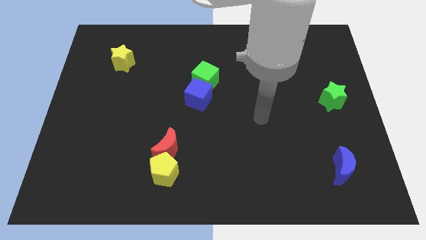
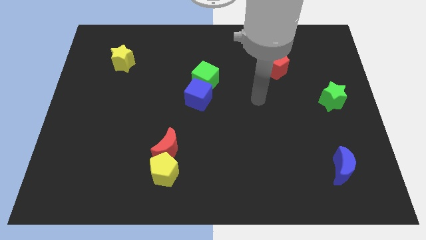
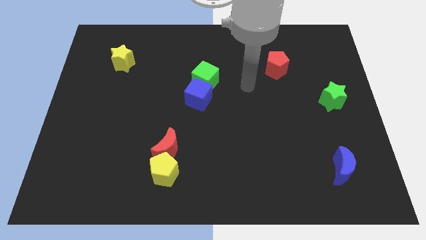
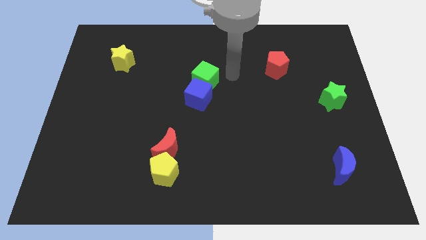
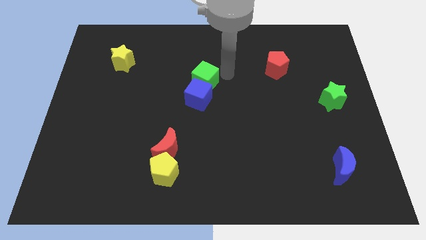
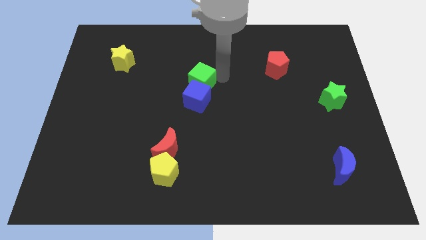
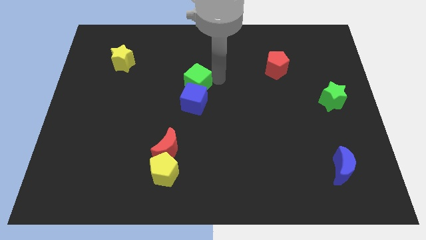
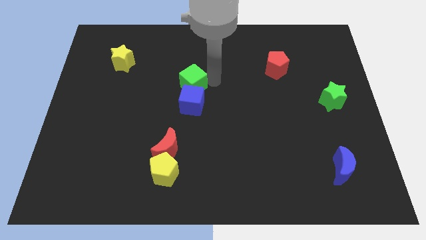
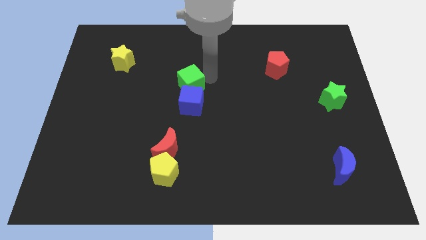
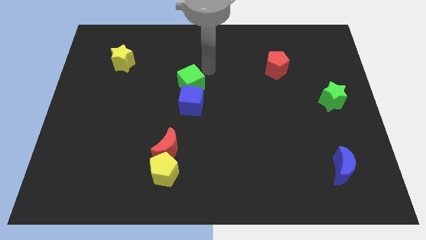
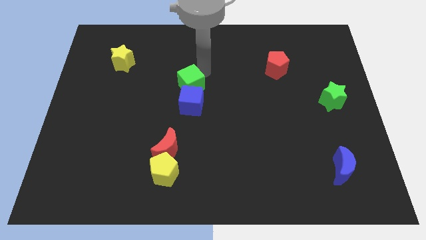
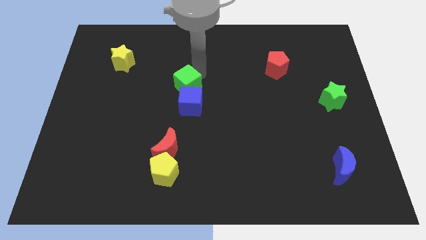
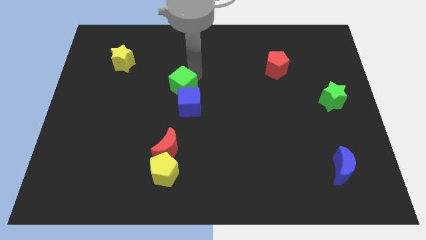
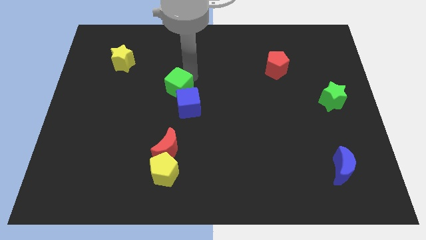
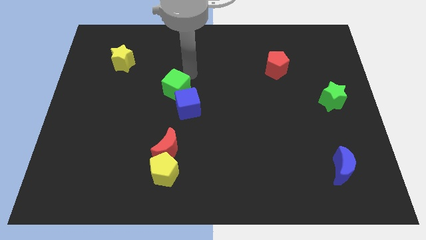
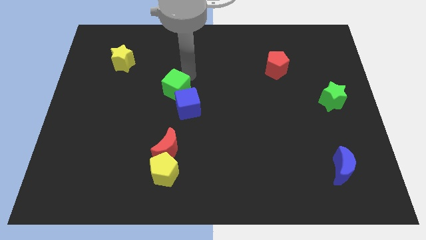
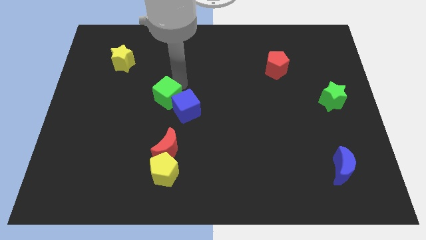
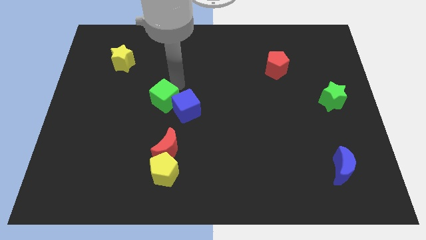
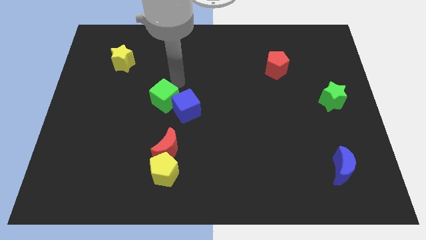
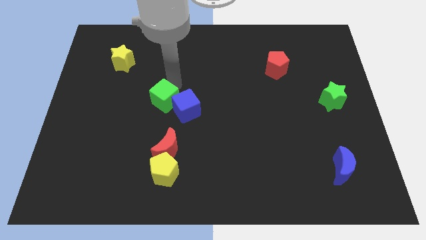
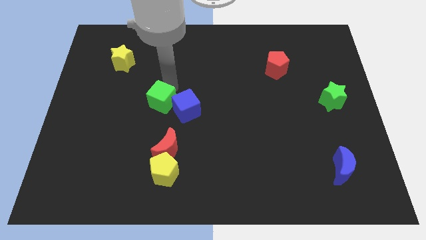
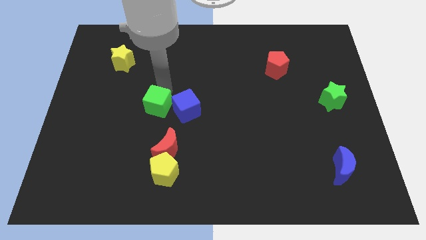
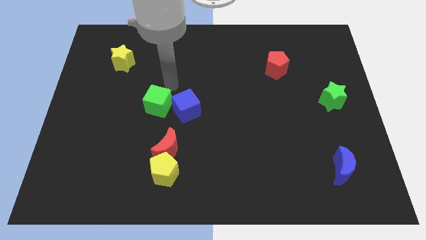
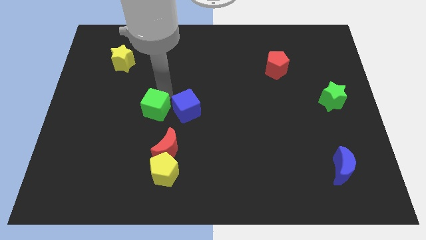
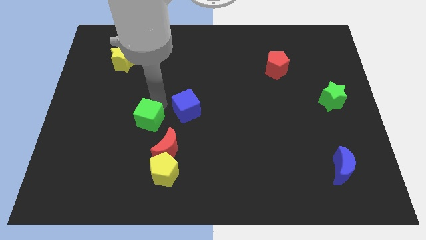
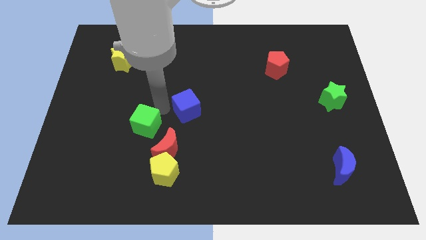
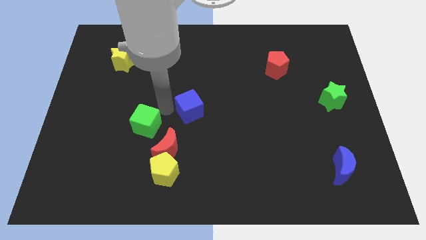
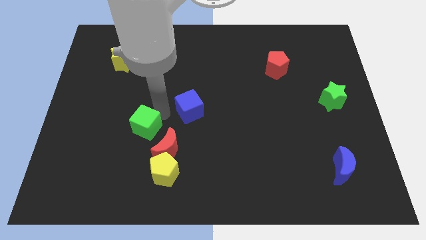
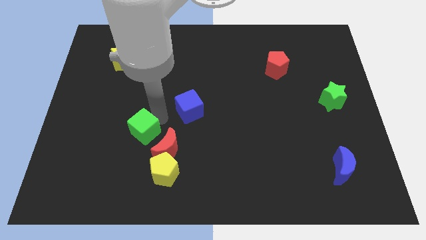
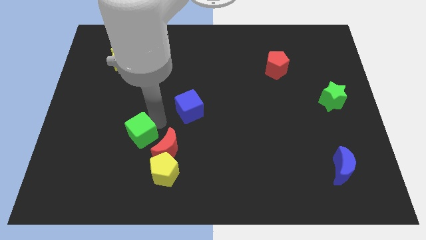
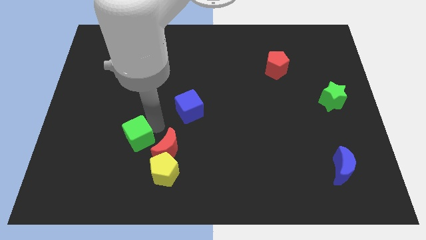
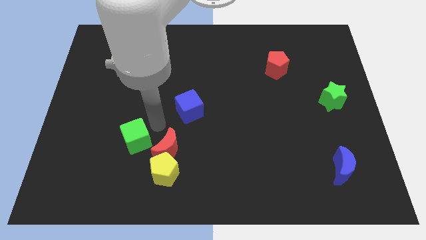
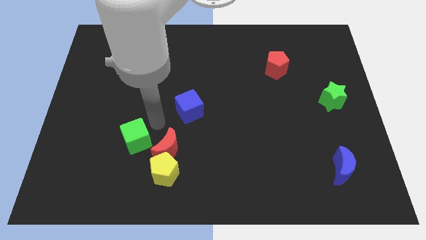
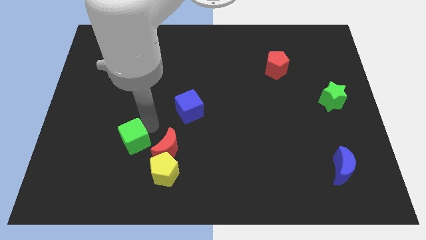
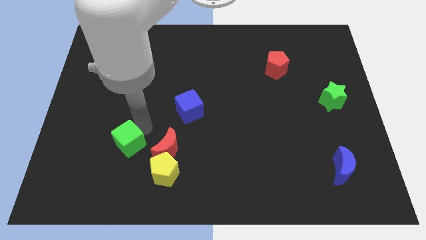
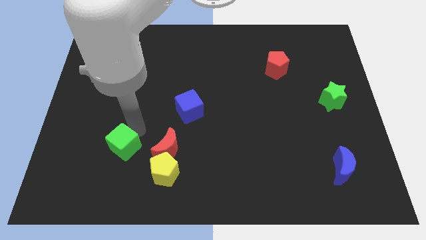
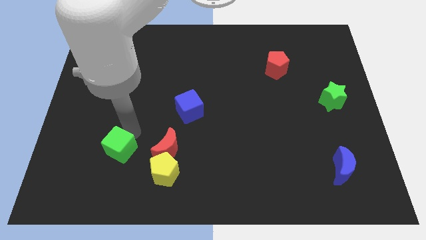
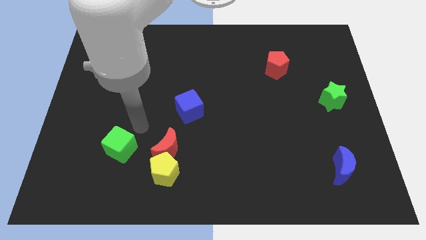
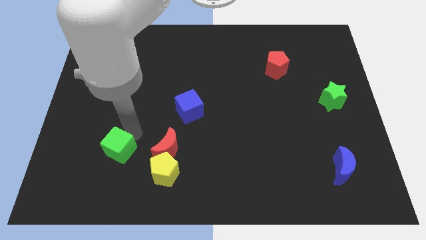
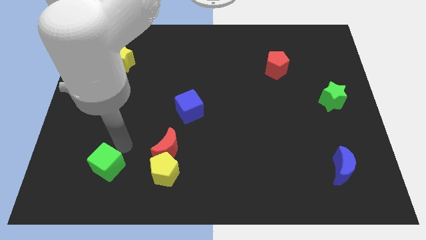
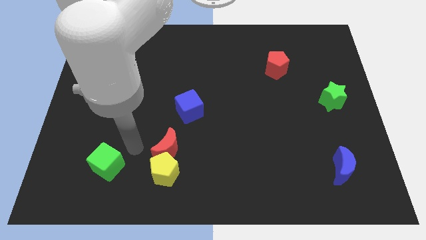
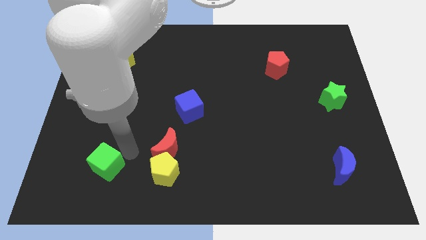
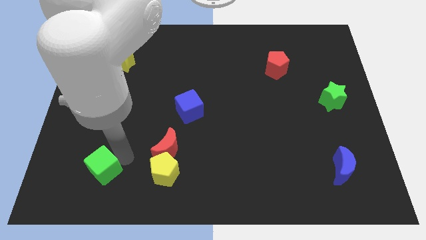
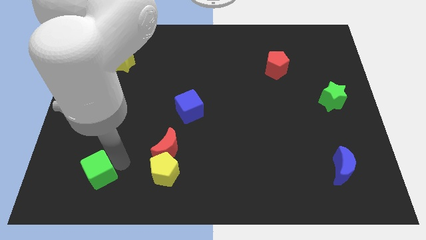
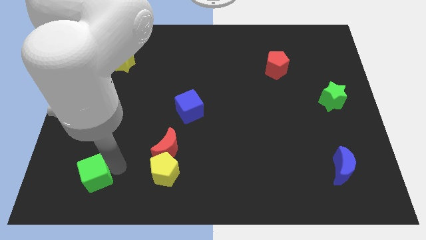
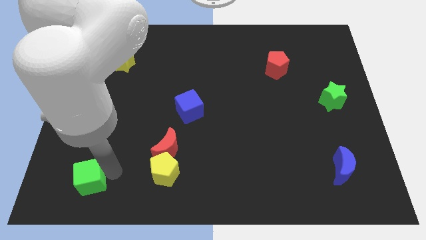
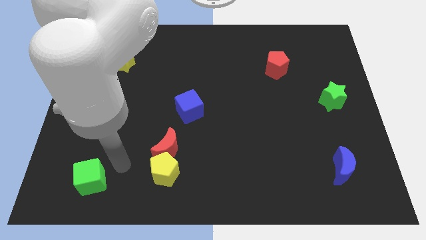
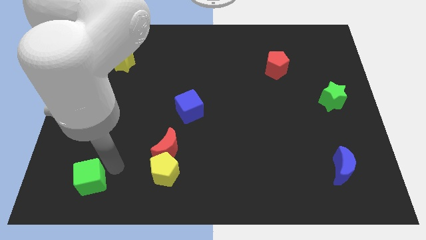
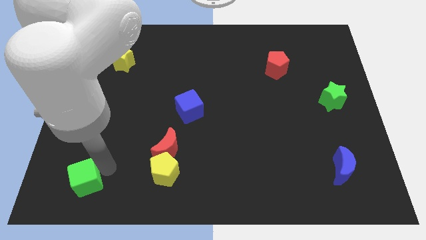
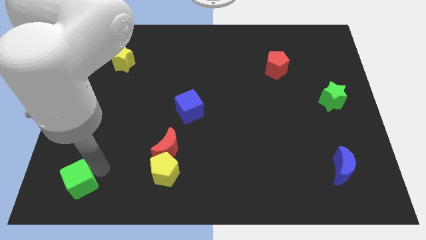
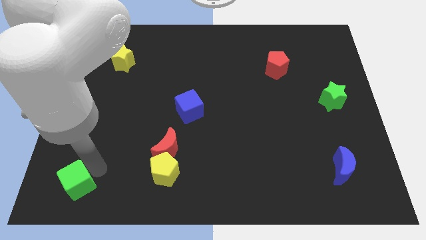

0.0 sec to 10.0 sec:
push the green cube to the bottom left

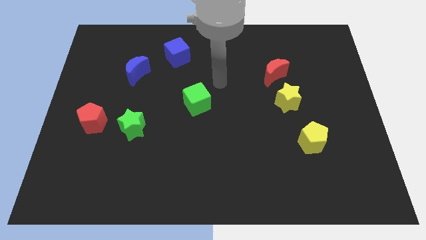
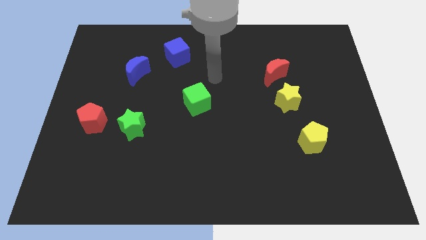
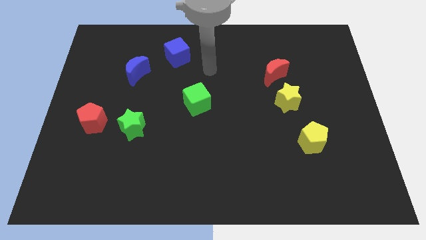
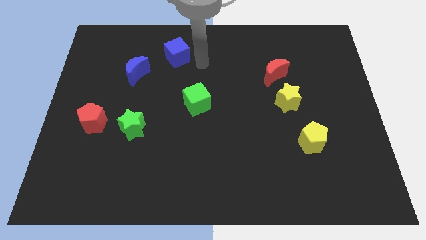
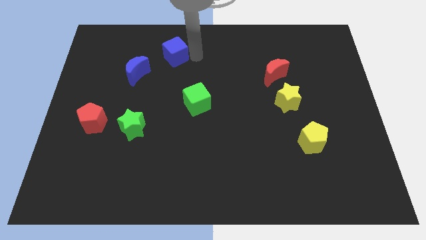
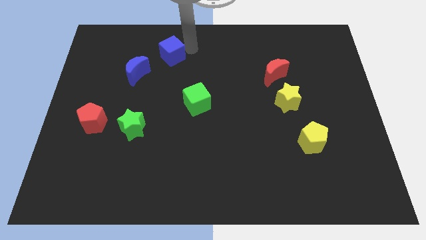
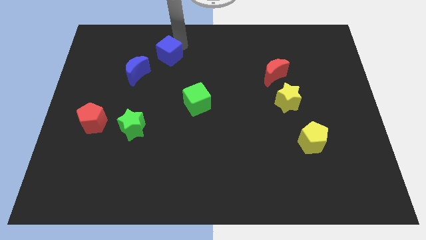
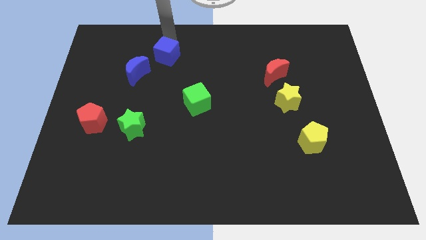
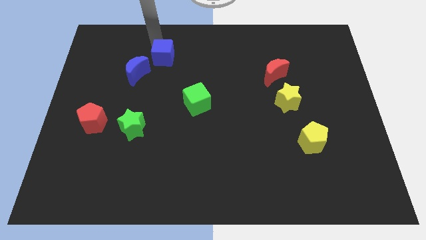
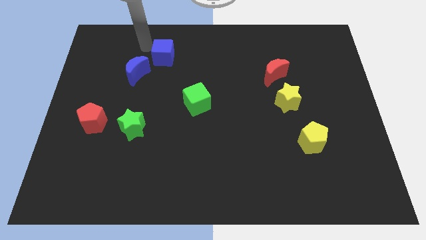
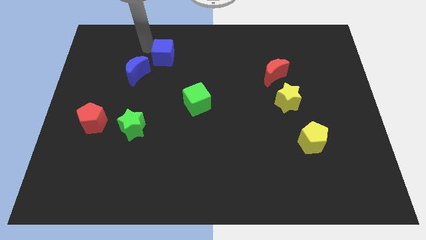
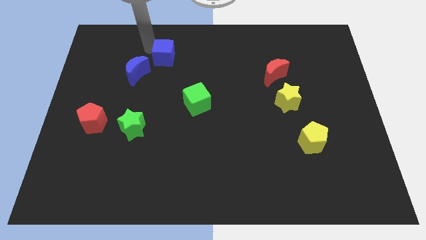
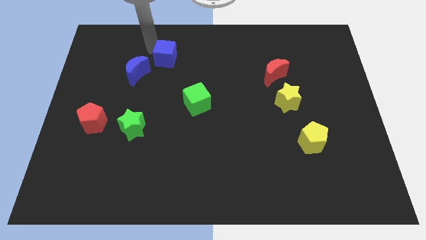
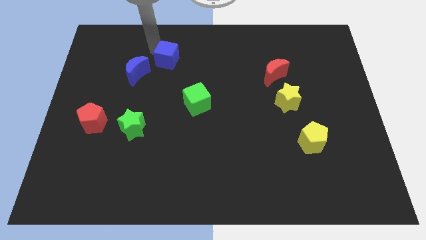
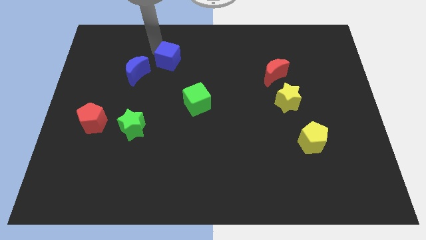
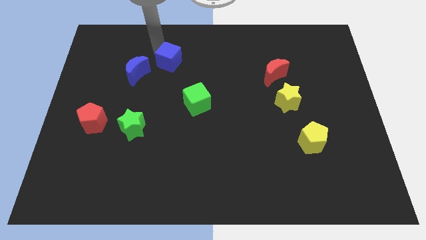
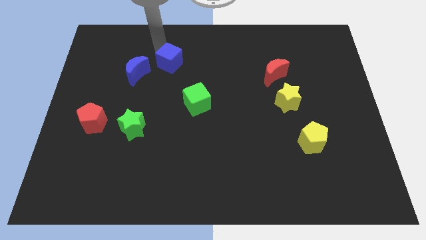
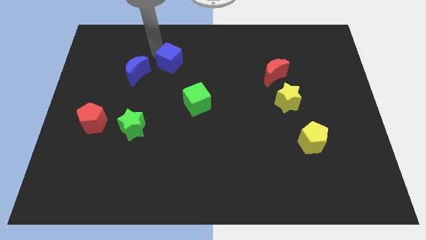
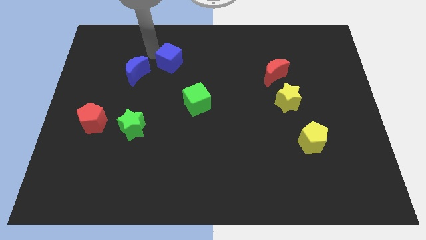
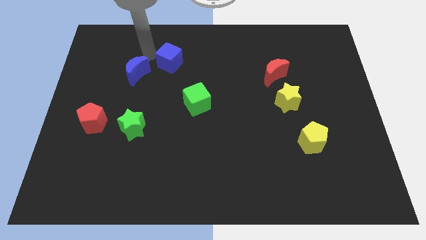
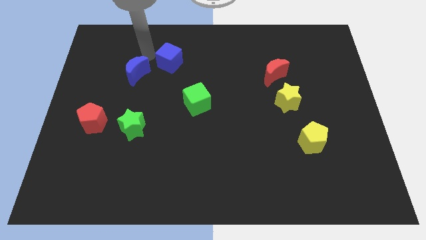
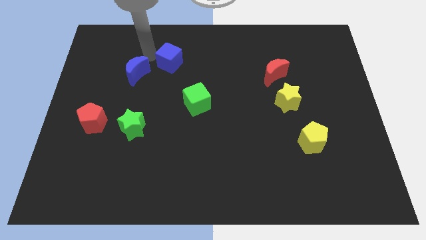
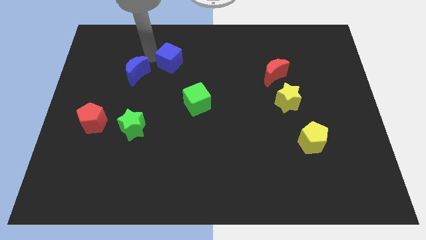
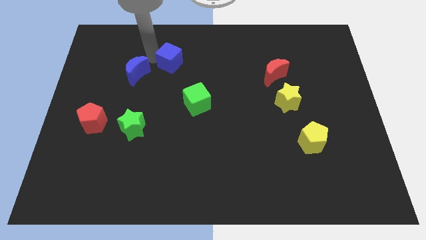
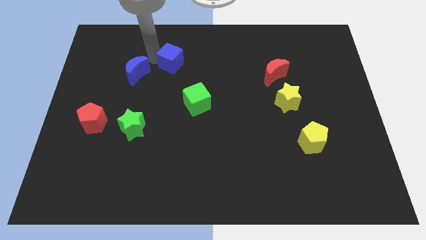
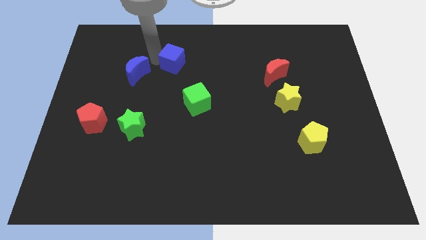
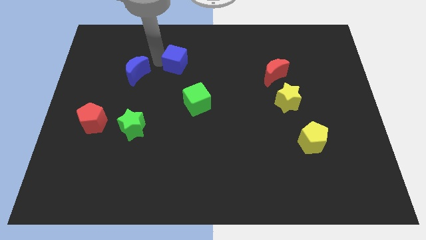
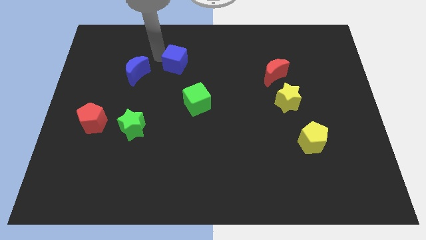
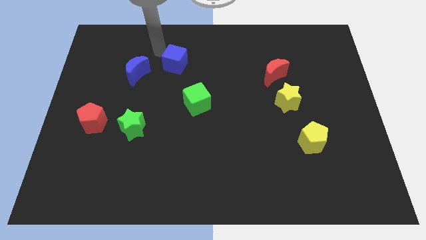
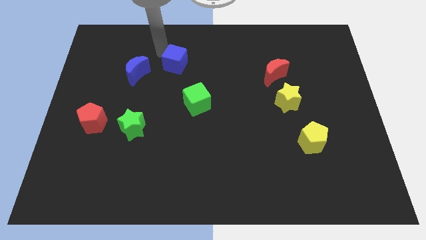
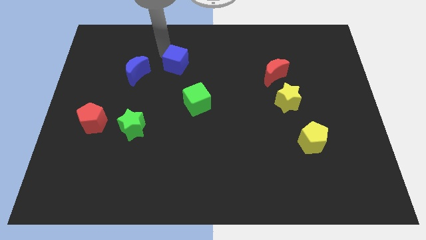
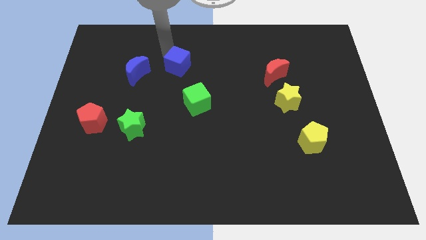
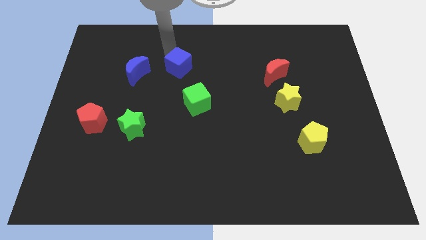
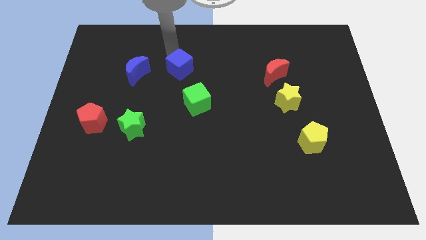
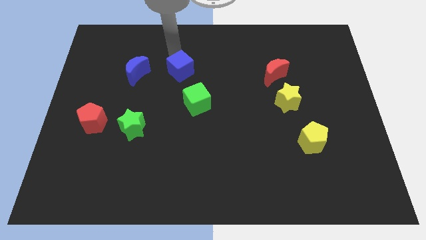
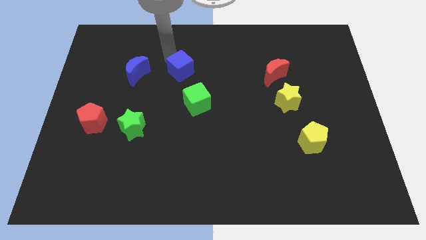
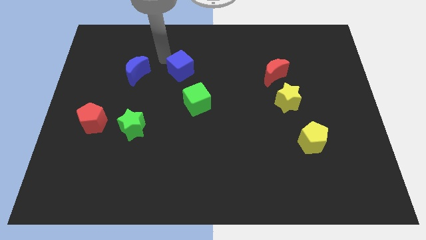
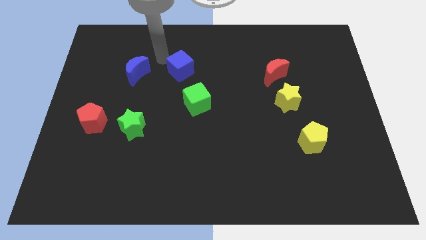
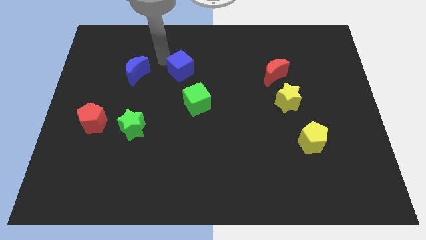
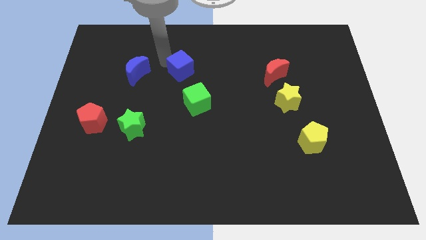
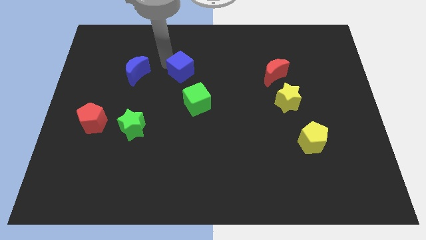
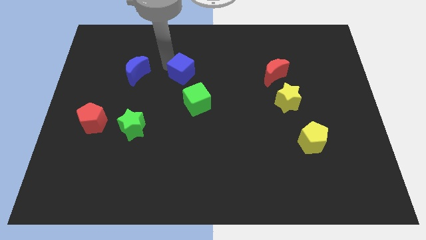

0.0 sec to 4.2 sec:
put the blue cube to the middle of the board
